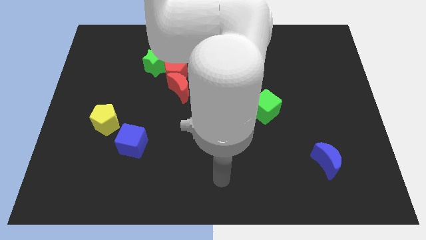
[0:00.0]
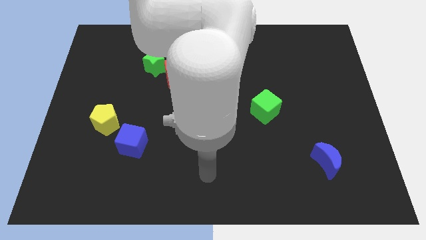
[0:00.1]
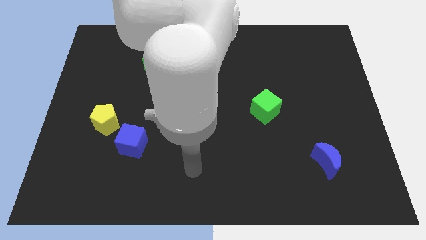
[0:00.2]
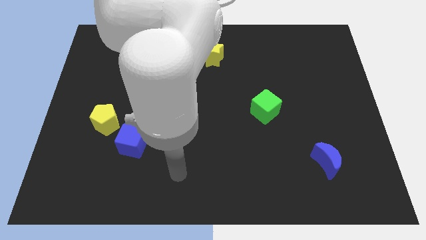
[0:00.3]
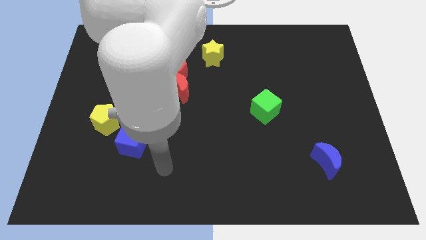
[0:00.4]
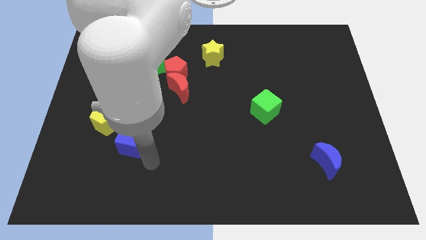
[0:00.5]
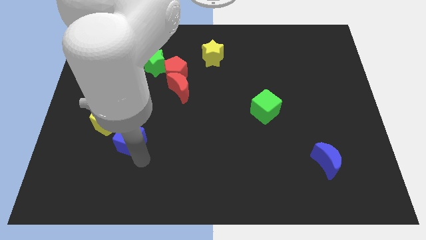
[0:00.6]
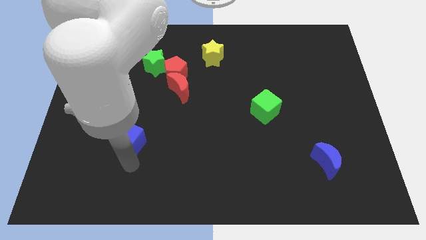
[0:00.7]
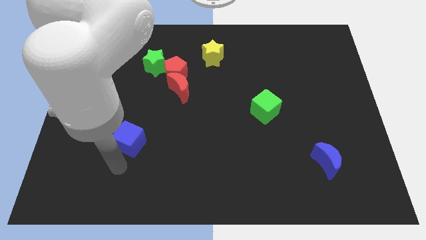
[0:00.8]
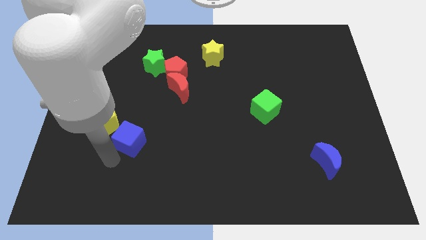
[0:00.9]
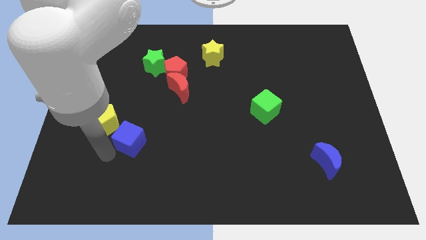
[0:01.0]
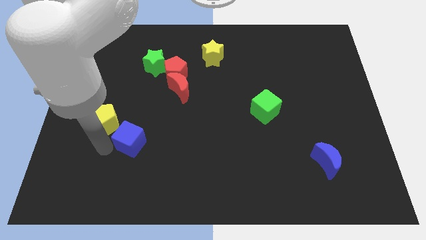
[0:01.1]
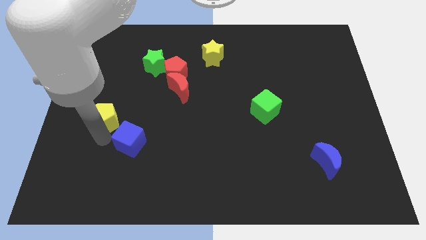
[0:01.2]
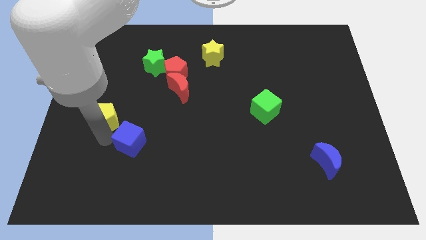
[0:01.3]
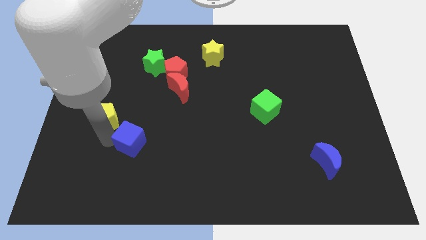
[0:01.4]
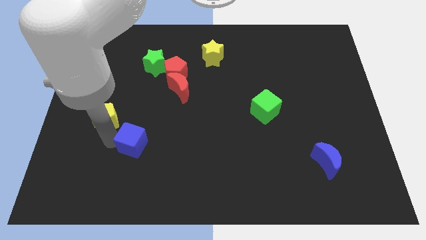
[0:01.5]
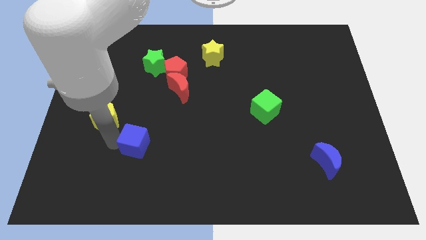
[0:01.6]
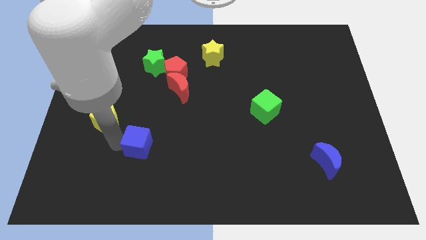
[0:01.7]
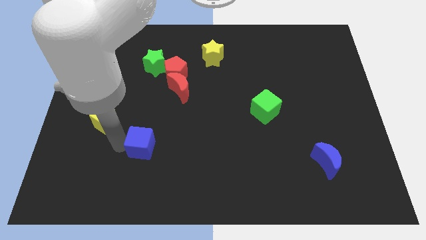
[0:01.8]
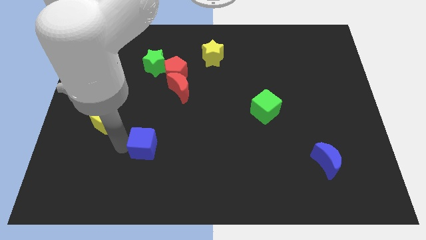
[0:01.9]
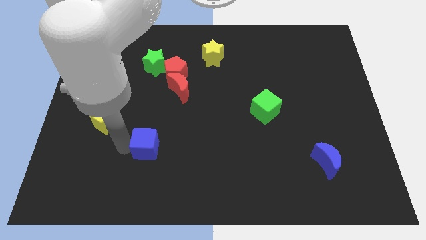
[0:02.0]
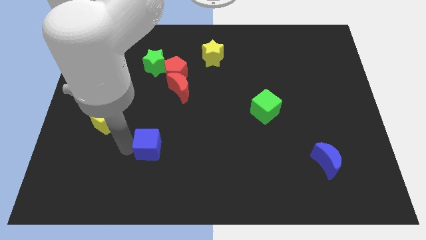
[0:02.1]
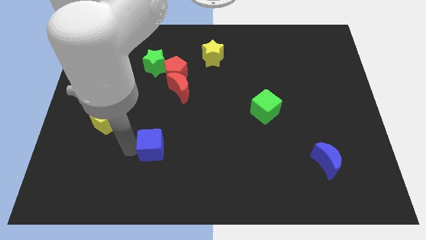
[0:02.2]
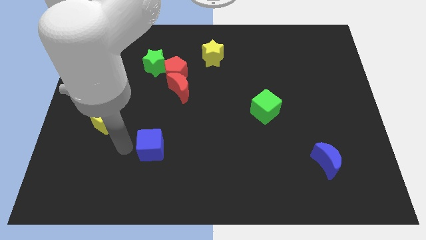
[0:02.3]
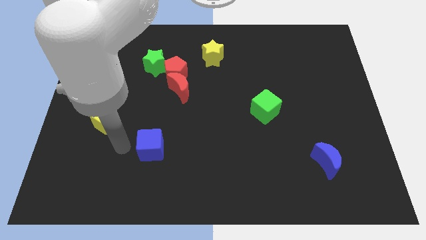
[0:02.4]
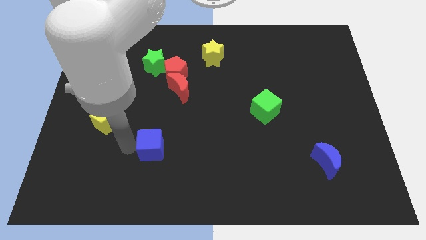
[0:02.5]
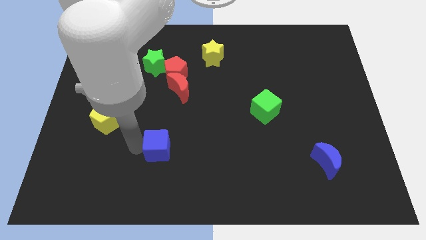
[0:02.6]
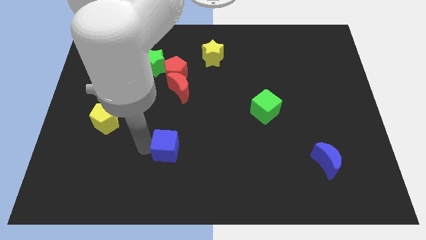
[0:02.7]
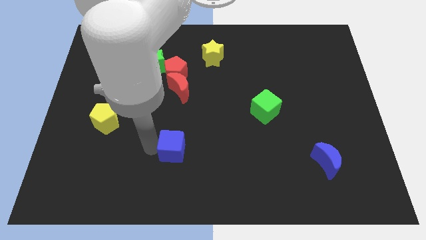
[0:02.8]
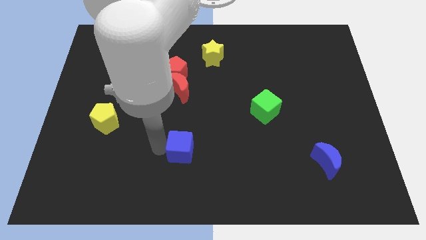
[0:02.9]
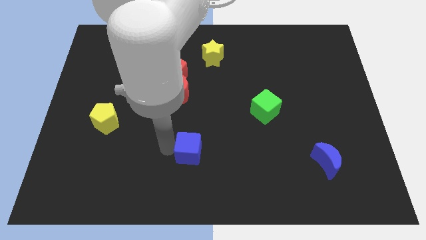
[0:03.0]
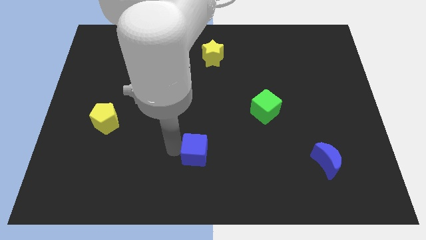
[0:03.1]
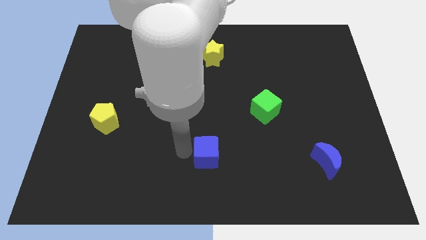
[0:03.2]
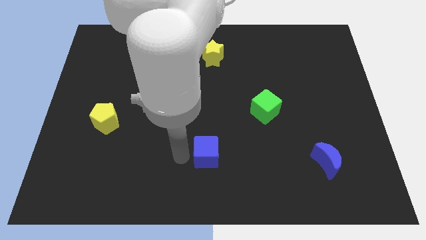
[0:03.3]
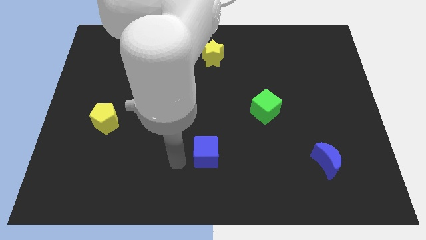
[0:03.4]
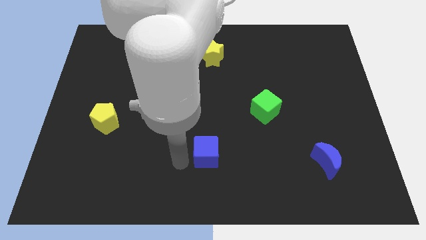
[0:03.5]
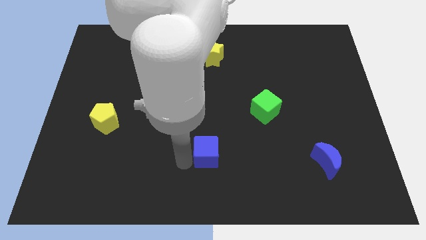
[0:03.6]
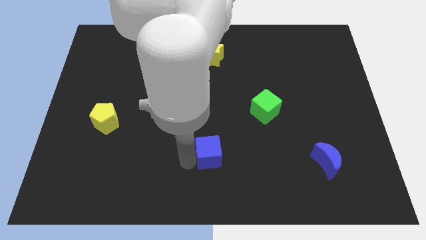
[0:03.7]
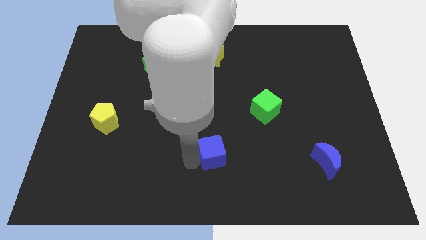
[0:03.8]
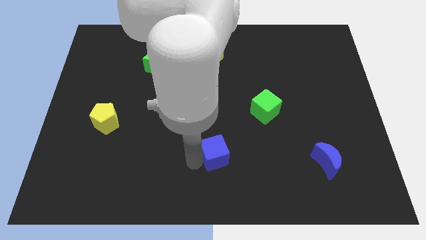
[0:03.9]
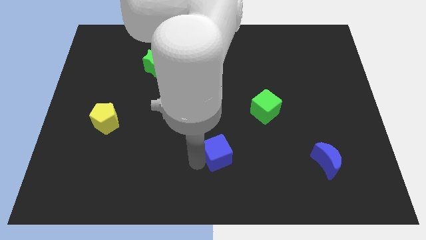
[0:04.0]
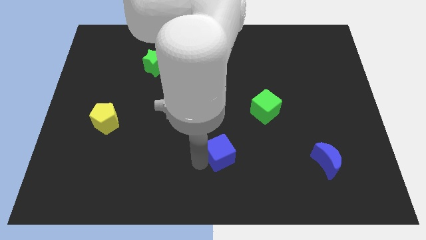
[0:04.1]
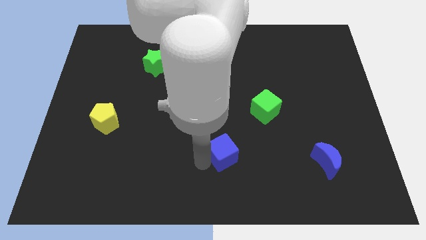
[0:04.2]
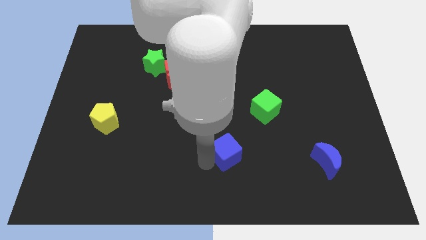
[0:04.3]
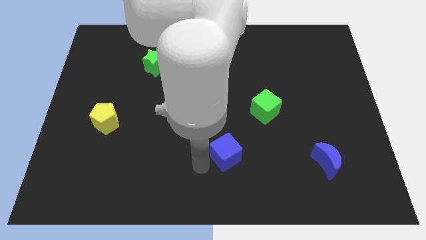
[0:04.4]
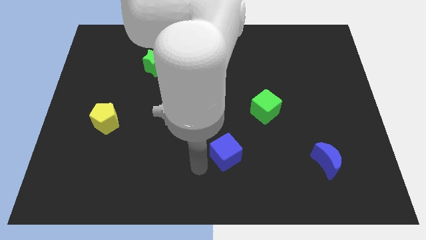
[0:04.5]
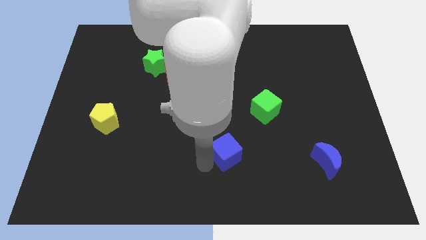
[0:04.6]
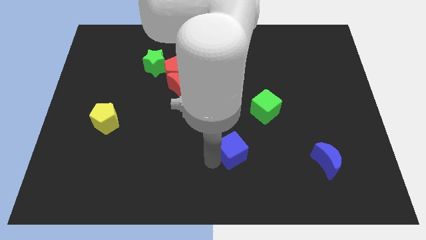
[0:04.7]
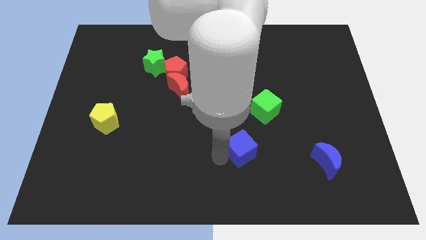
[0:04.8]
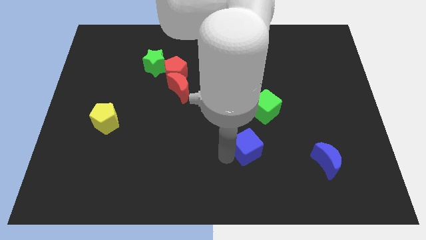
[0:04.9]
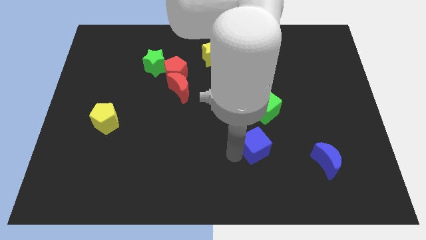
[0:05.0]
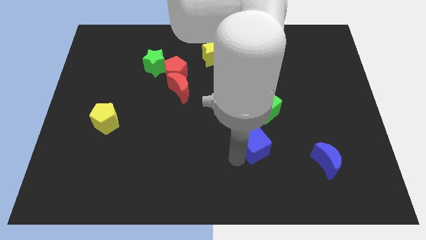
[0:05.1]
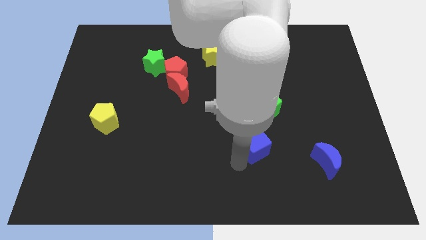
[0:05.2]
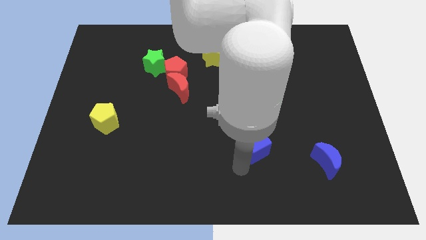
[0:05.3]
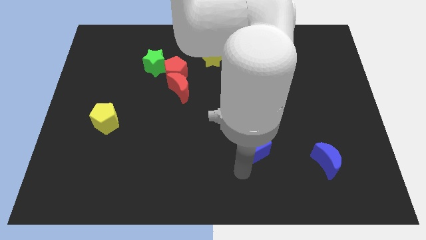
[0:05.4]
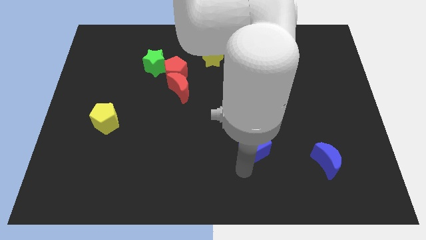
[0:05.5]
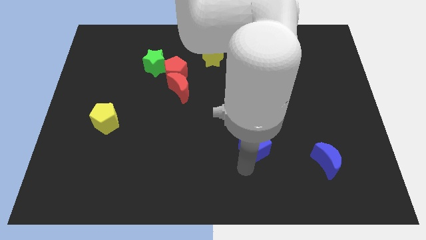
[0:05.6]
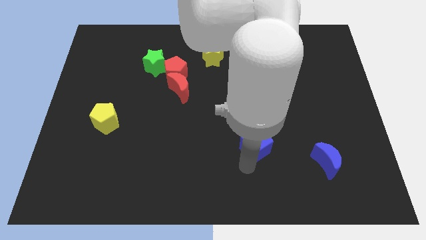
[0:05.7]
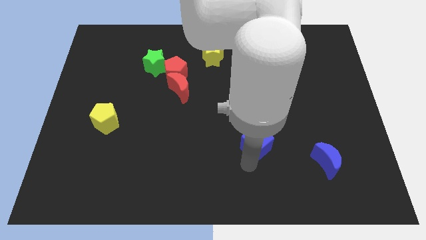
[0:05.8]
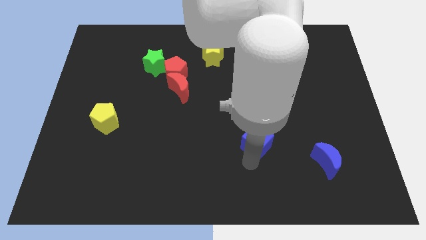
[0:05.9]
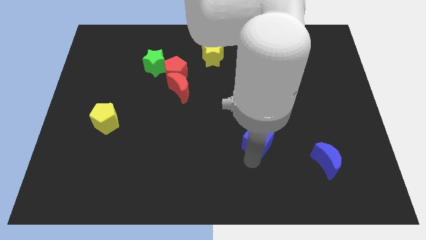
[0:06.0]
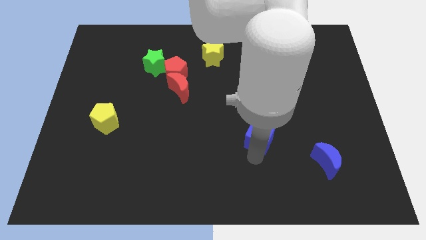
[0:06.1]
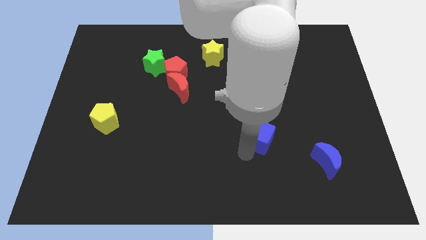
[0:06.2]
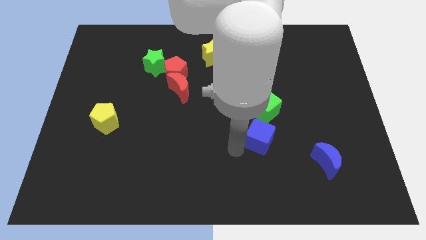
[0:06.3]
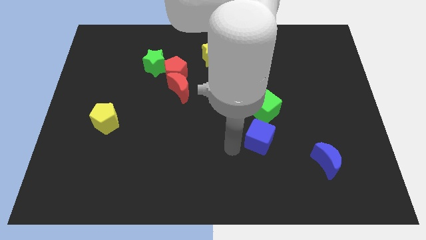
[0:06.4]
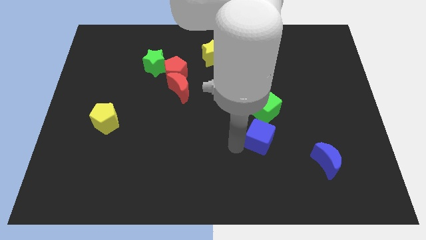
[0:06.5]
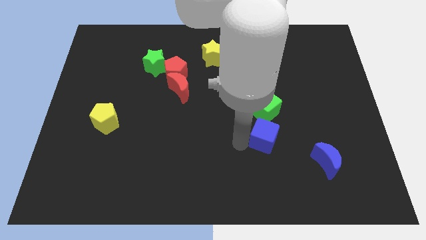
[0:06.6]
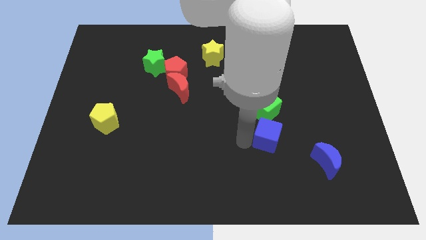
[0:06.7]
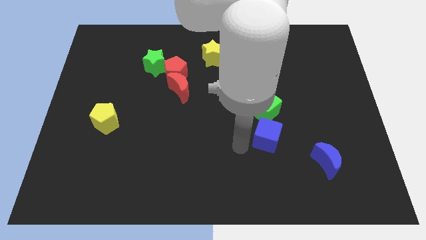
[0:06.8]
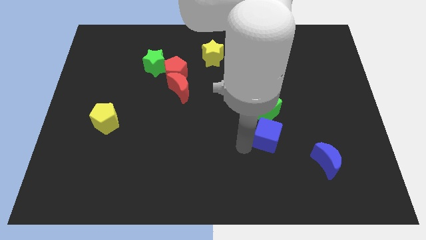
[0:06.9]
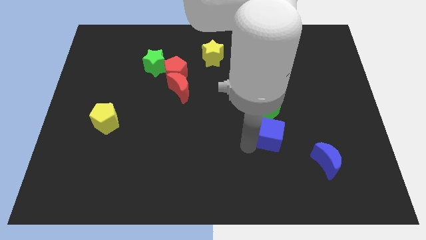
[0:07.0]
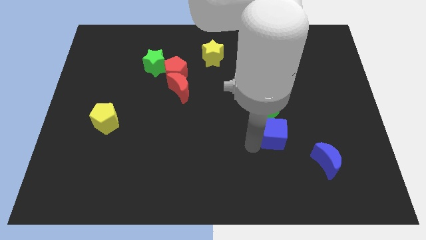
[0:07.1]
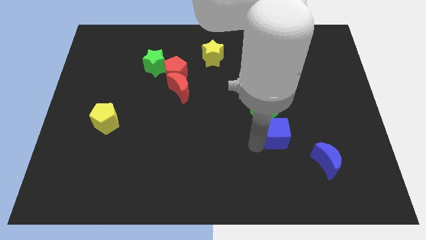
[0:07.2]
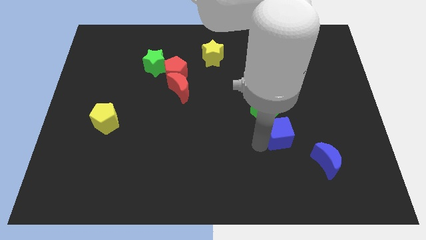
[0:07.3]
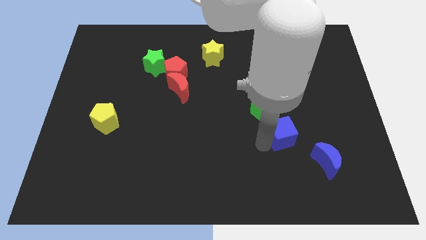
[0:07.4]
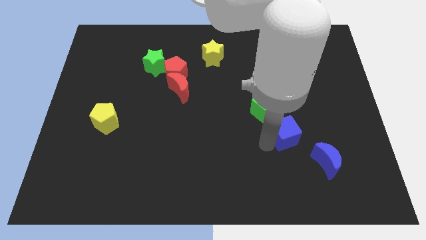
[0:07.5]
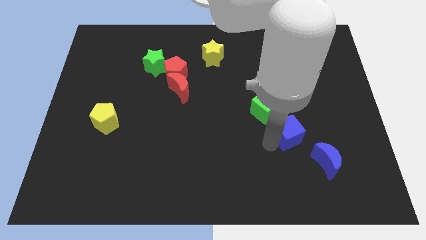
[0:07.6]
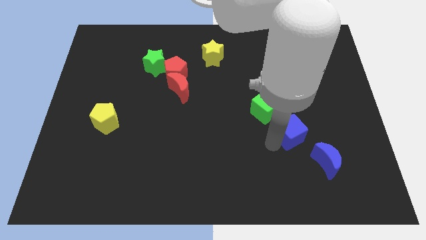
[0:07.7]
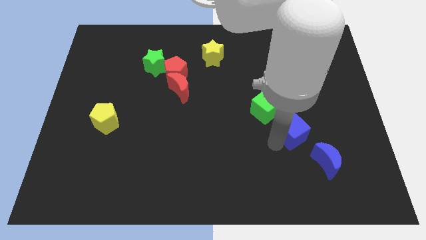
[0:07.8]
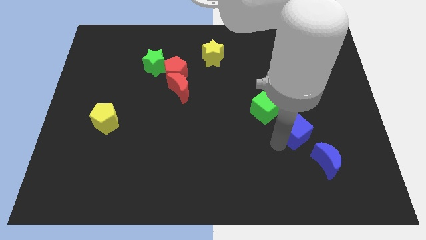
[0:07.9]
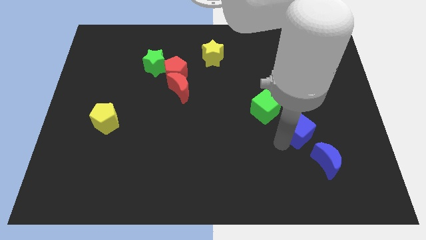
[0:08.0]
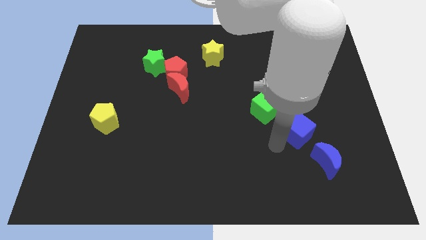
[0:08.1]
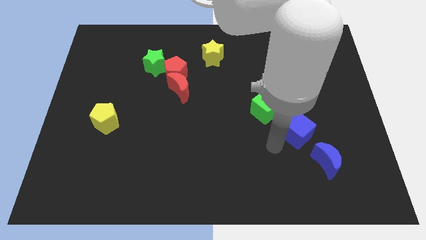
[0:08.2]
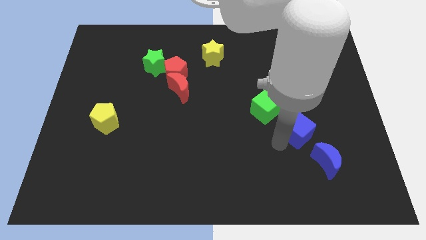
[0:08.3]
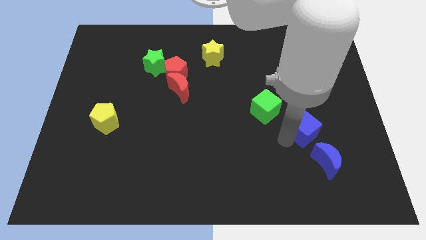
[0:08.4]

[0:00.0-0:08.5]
move the blue cube above the blue moon
